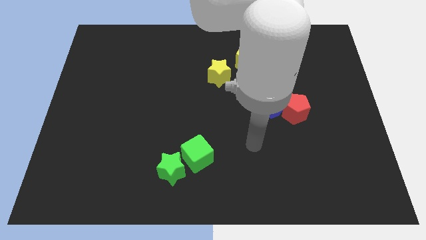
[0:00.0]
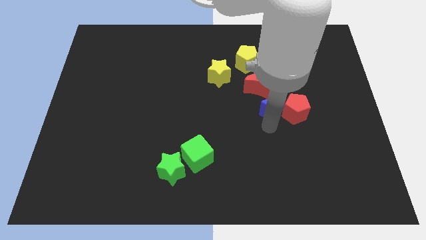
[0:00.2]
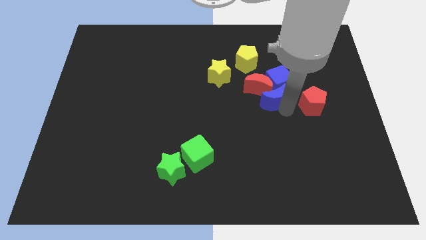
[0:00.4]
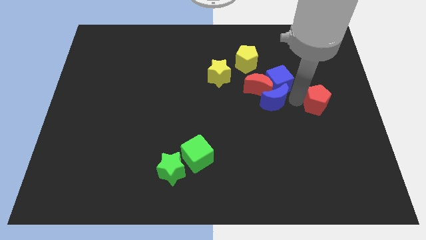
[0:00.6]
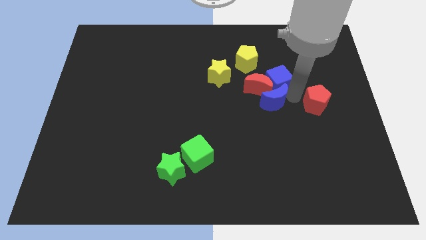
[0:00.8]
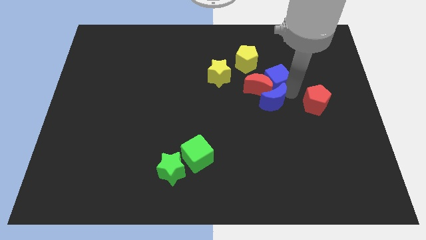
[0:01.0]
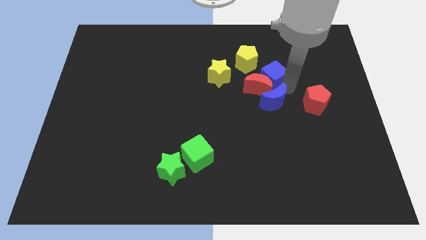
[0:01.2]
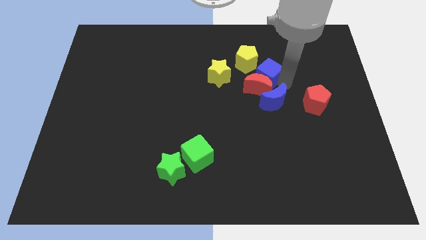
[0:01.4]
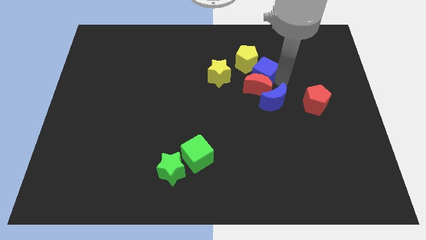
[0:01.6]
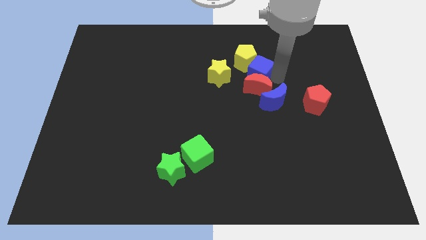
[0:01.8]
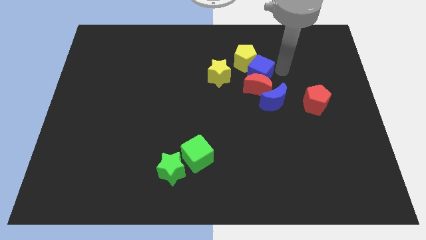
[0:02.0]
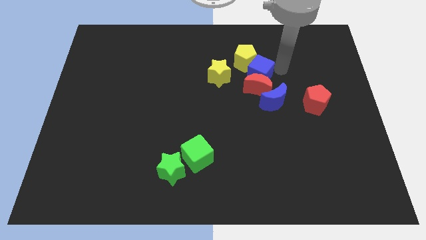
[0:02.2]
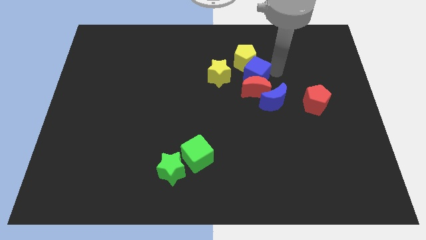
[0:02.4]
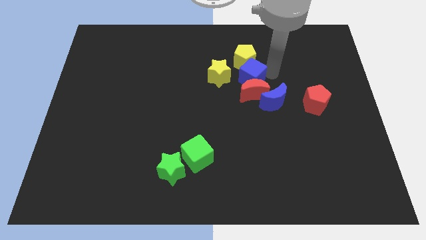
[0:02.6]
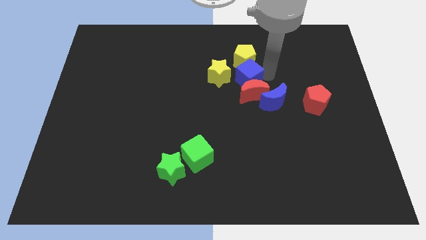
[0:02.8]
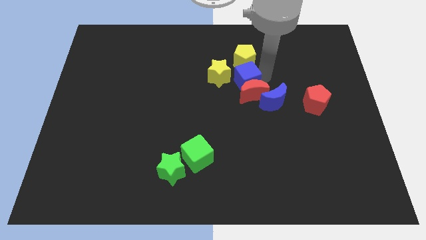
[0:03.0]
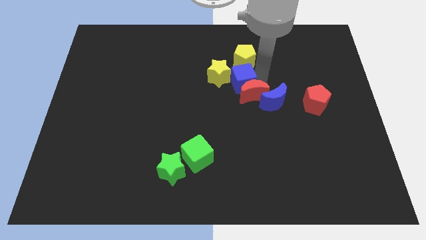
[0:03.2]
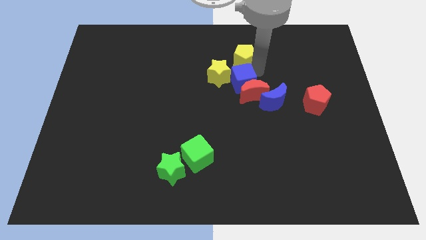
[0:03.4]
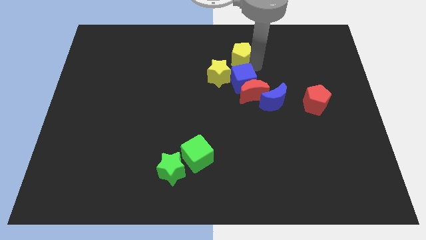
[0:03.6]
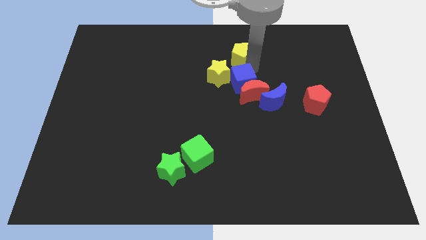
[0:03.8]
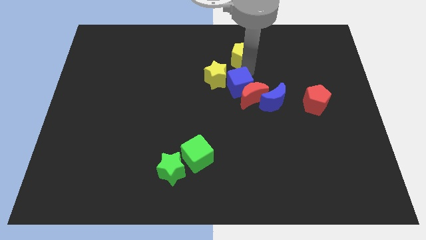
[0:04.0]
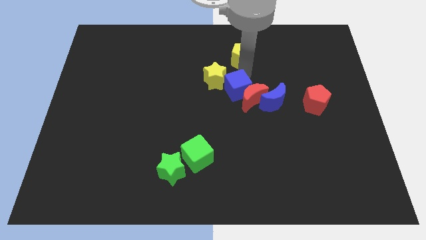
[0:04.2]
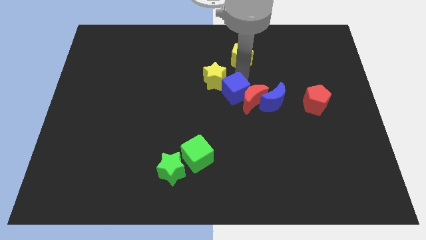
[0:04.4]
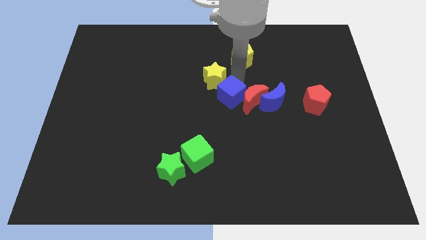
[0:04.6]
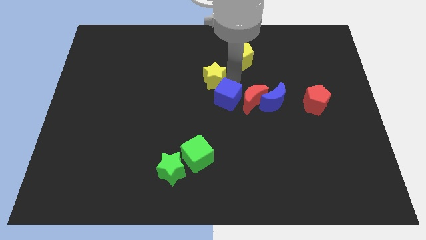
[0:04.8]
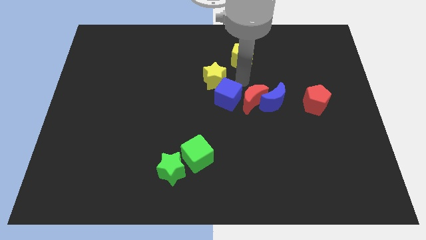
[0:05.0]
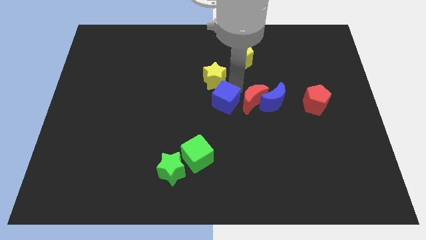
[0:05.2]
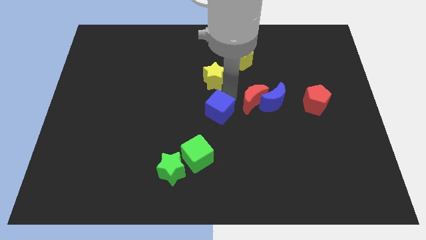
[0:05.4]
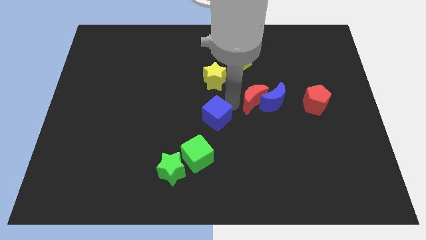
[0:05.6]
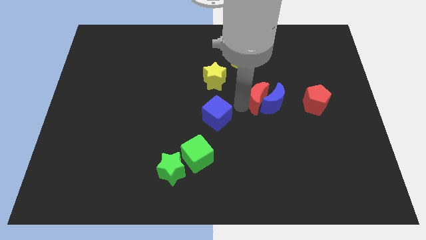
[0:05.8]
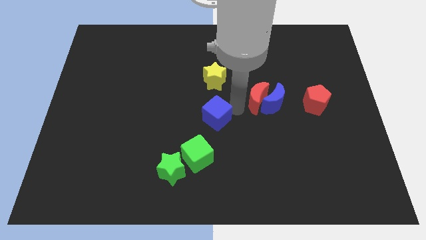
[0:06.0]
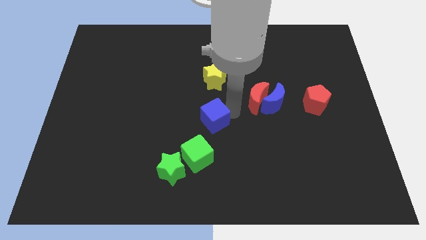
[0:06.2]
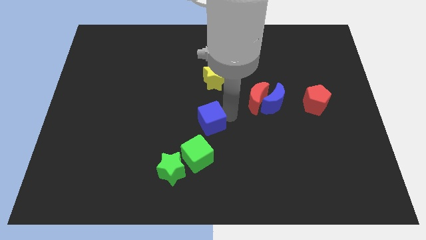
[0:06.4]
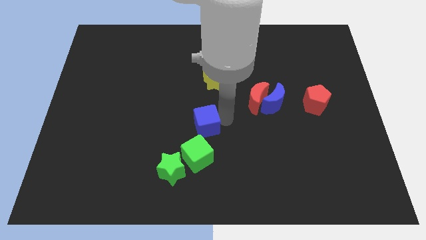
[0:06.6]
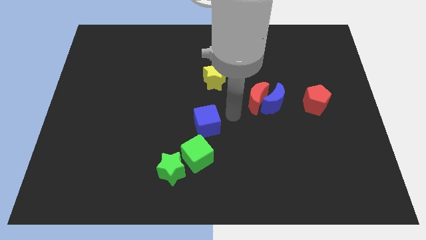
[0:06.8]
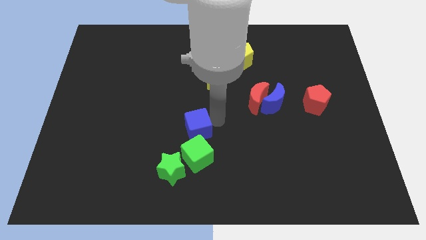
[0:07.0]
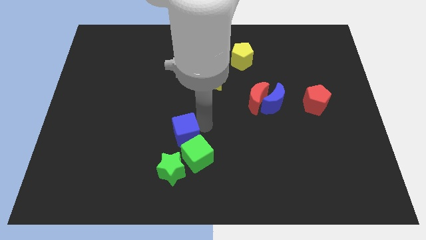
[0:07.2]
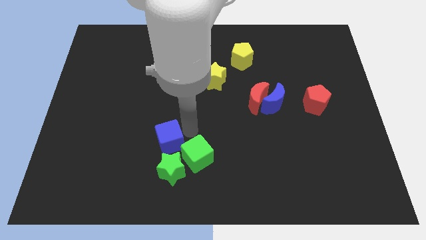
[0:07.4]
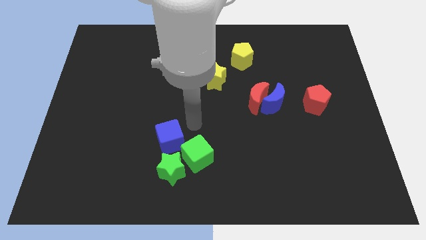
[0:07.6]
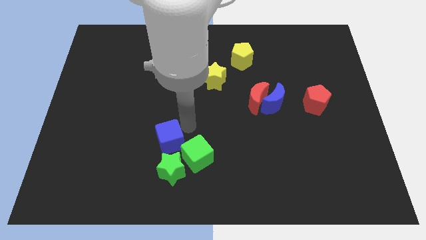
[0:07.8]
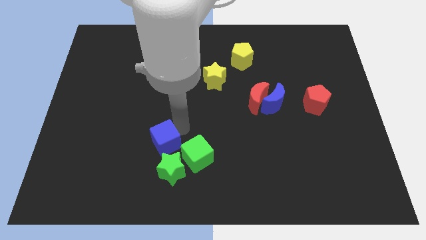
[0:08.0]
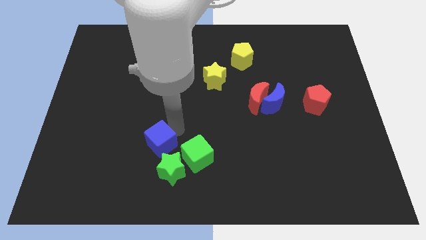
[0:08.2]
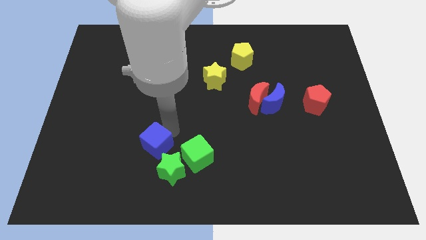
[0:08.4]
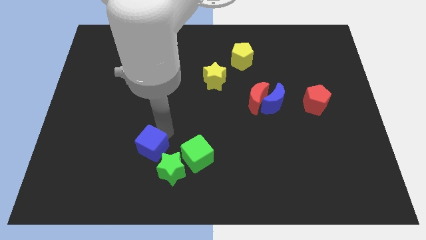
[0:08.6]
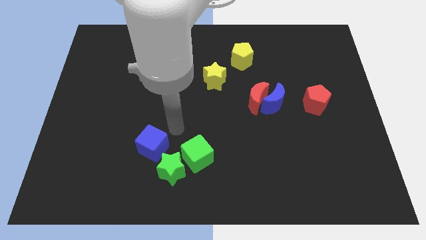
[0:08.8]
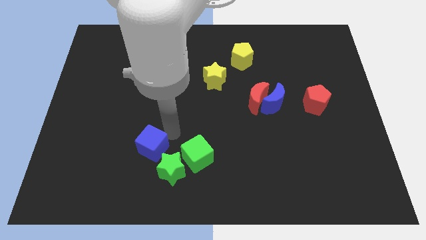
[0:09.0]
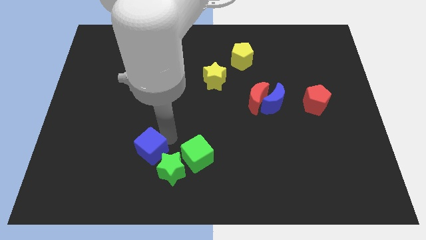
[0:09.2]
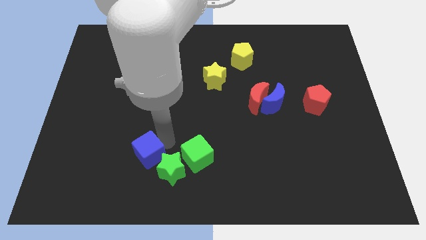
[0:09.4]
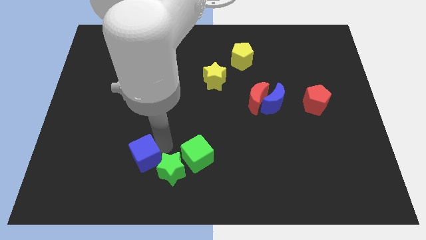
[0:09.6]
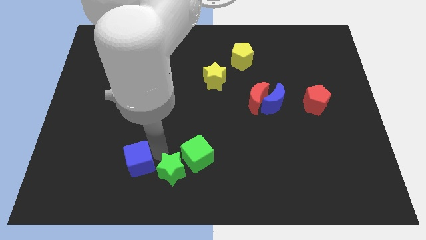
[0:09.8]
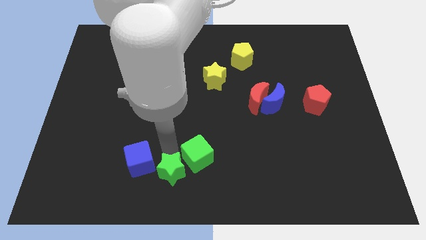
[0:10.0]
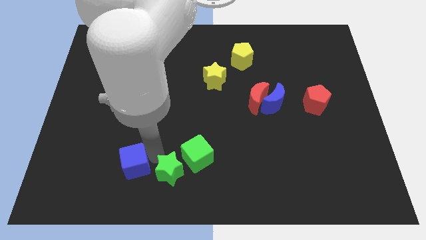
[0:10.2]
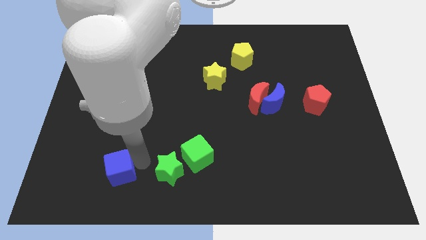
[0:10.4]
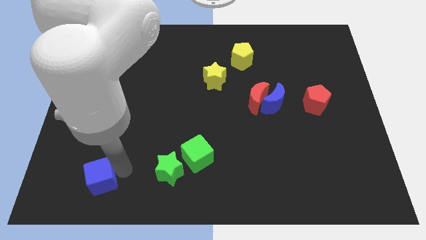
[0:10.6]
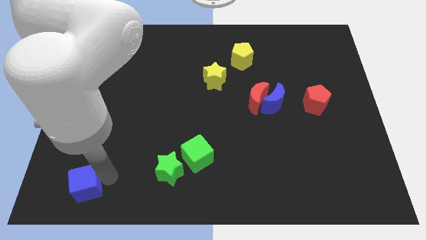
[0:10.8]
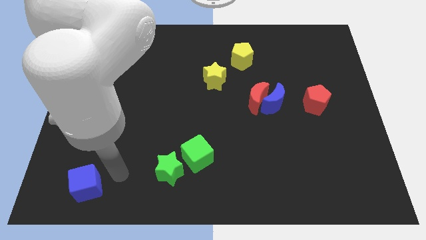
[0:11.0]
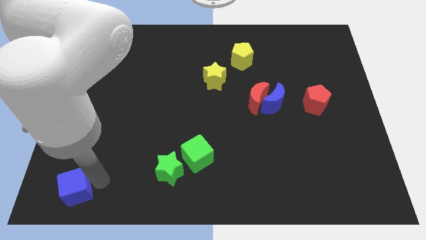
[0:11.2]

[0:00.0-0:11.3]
move the blue cube to the bottom left

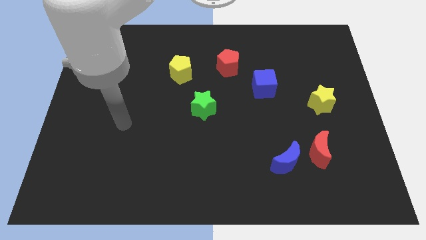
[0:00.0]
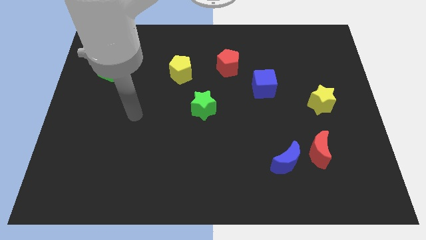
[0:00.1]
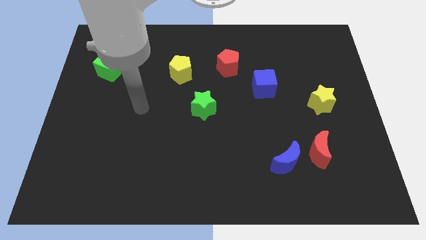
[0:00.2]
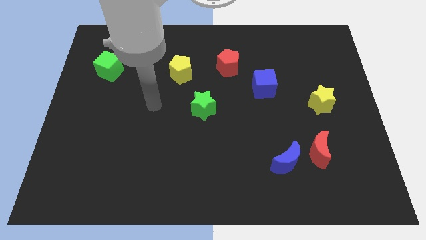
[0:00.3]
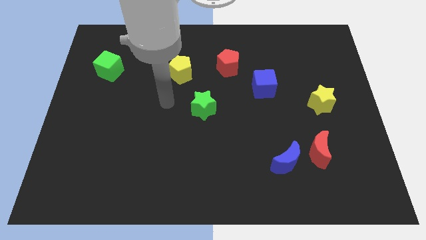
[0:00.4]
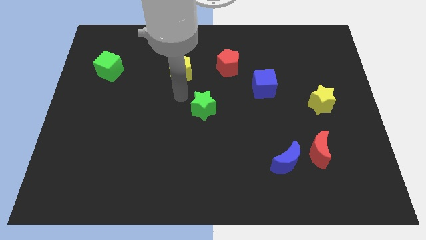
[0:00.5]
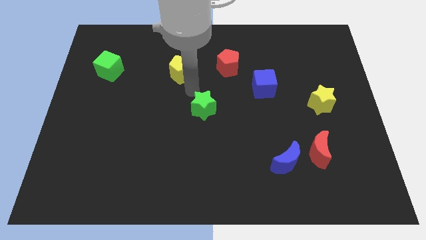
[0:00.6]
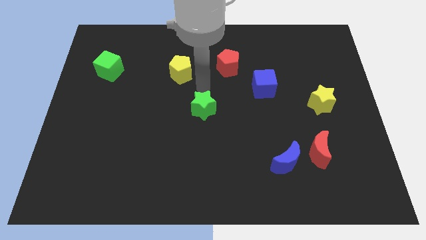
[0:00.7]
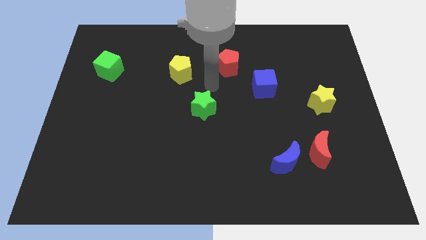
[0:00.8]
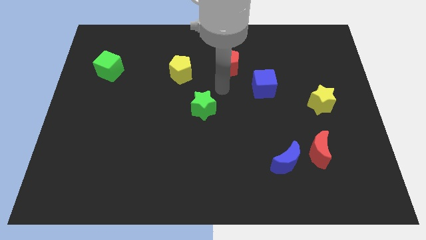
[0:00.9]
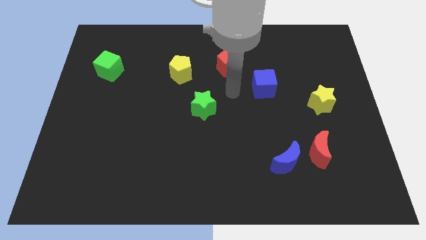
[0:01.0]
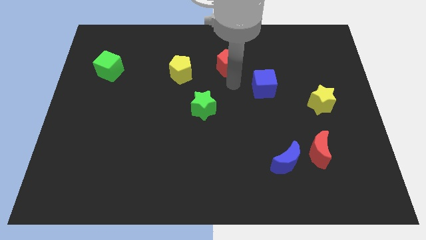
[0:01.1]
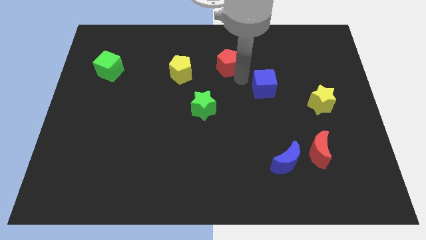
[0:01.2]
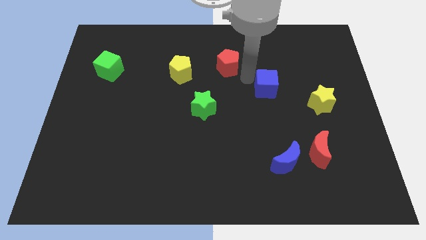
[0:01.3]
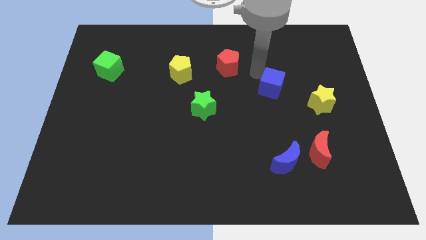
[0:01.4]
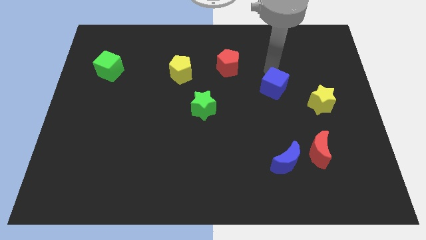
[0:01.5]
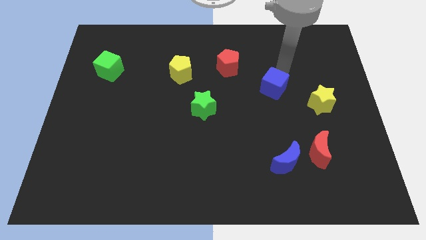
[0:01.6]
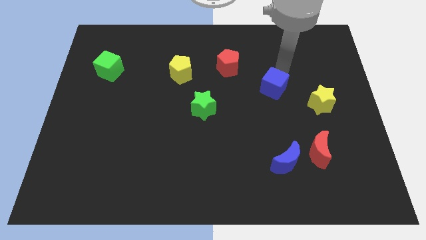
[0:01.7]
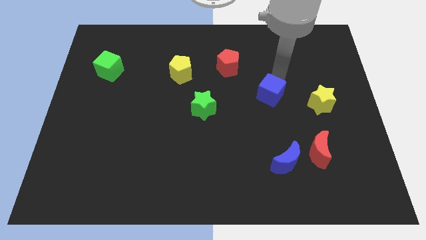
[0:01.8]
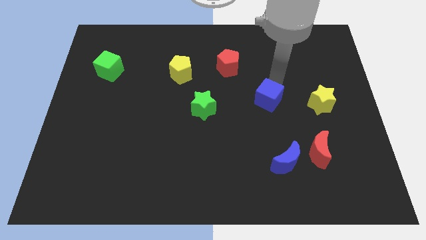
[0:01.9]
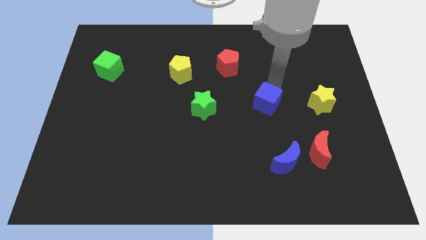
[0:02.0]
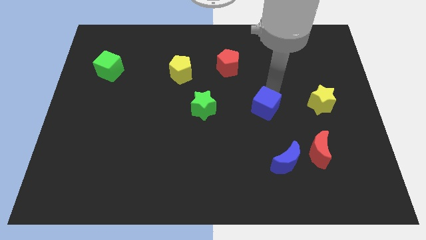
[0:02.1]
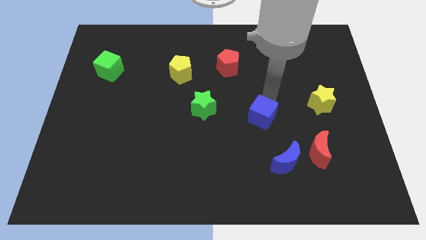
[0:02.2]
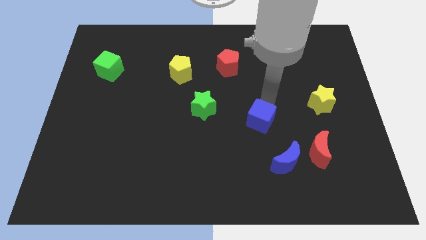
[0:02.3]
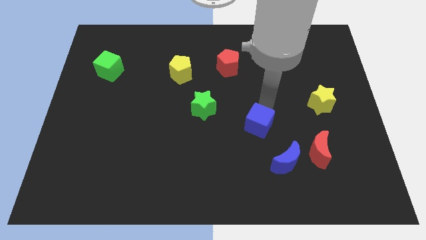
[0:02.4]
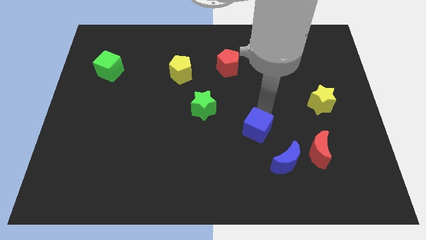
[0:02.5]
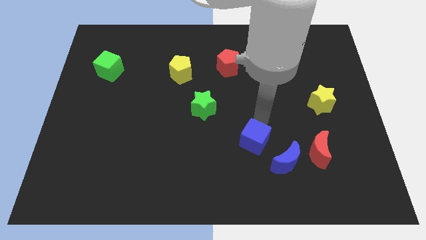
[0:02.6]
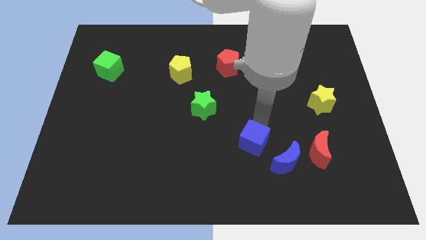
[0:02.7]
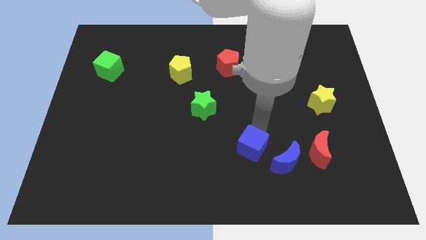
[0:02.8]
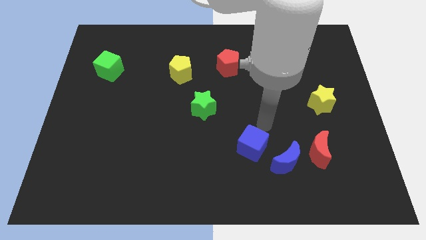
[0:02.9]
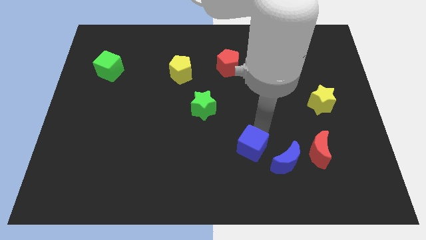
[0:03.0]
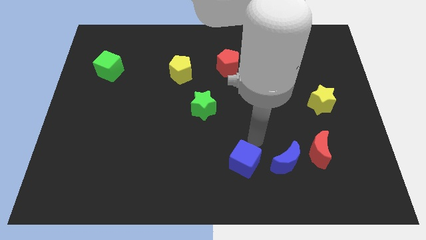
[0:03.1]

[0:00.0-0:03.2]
move the blue cube to the bottom
